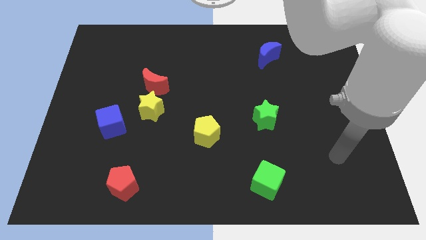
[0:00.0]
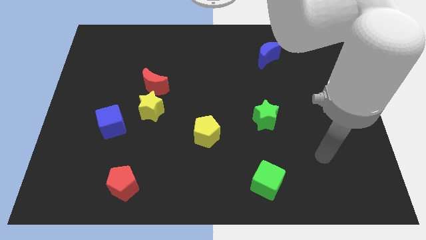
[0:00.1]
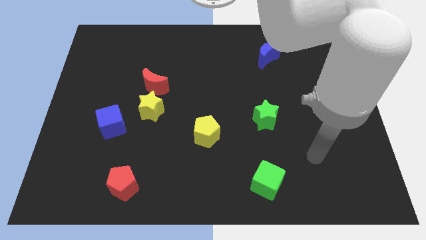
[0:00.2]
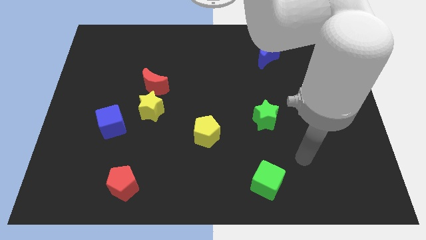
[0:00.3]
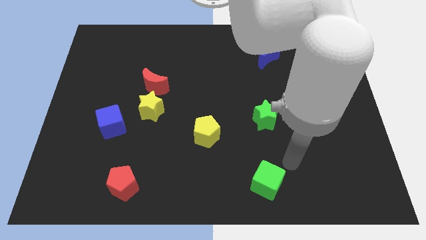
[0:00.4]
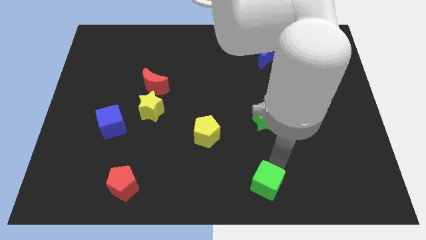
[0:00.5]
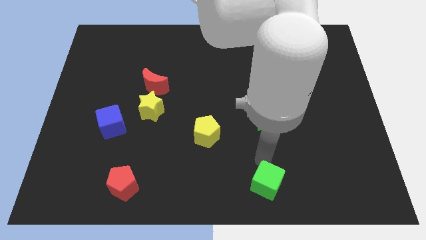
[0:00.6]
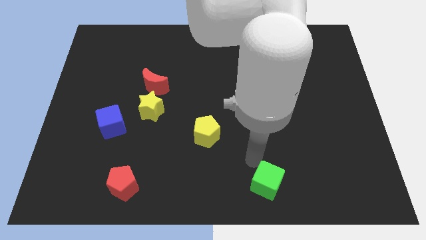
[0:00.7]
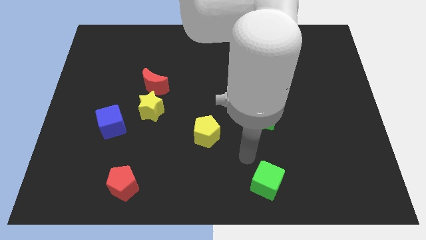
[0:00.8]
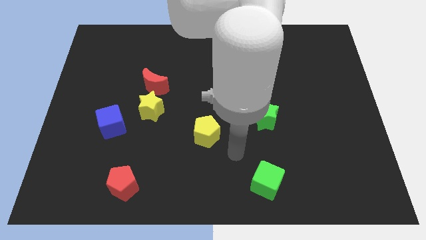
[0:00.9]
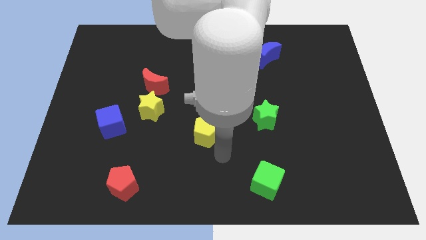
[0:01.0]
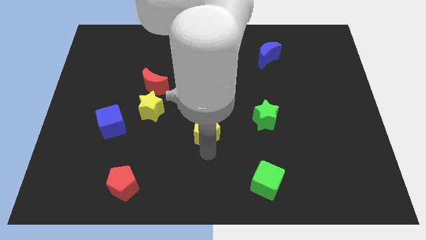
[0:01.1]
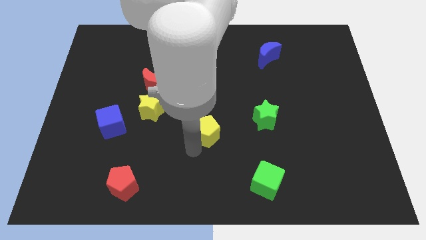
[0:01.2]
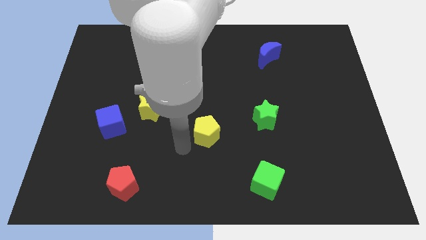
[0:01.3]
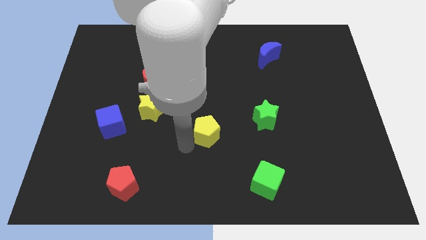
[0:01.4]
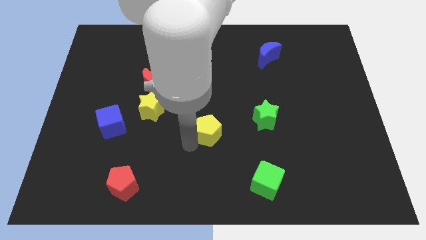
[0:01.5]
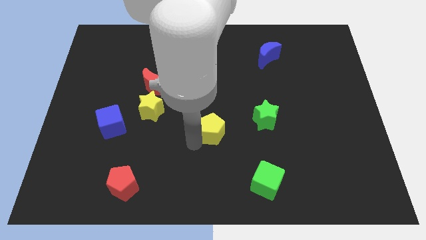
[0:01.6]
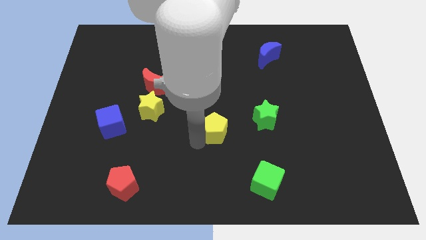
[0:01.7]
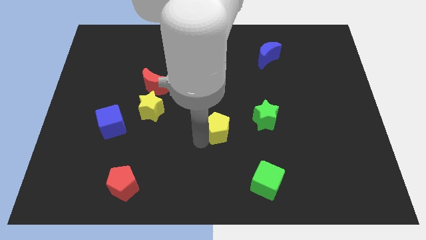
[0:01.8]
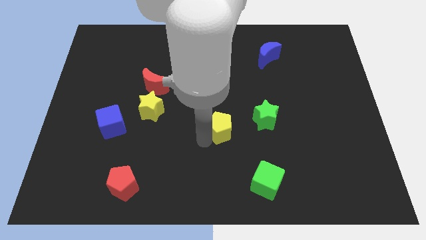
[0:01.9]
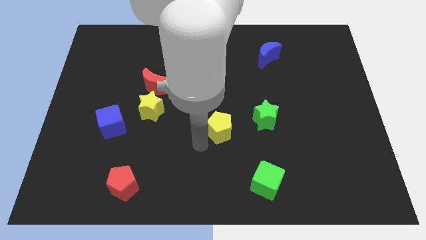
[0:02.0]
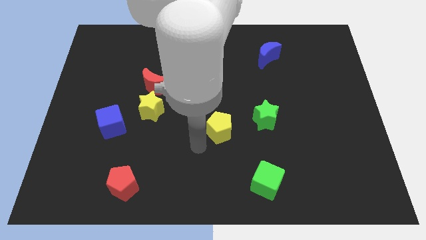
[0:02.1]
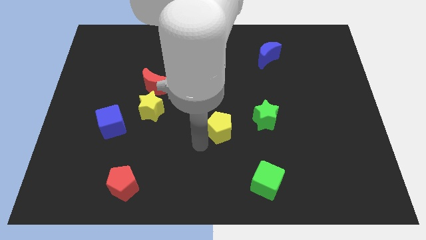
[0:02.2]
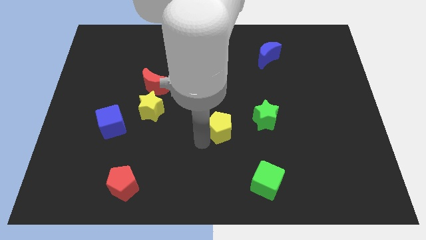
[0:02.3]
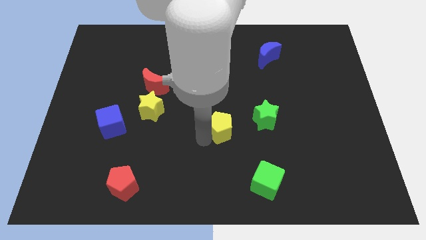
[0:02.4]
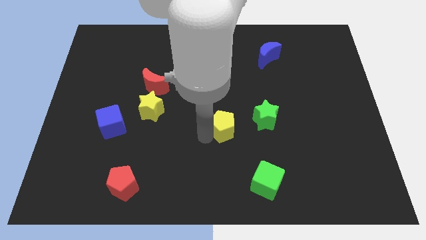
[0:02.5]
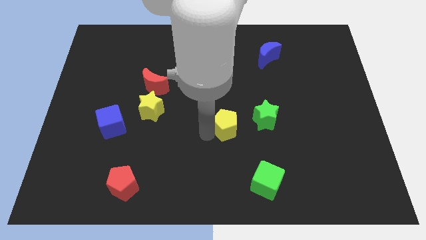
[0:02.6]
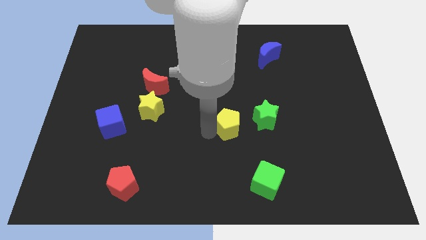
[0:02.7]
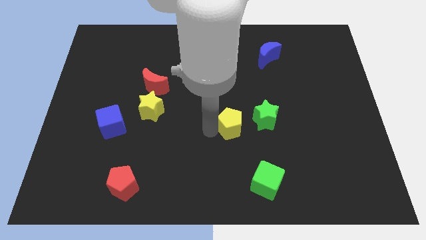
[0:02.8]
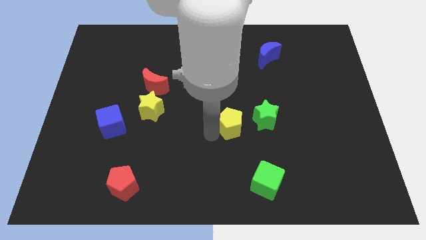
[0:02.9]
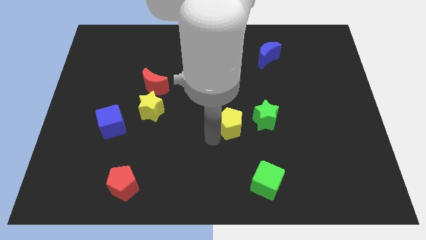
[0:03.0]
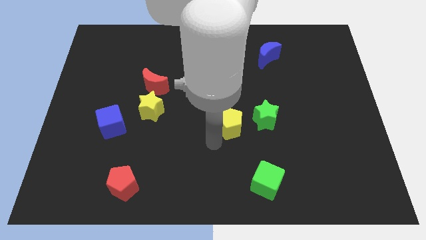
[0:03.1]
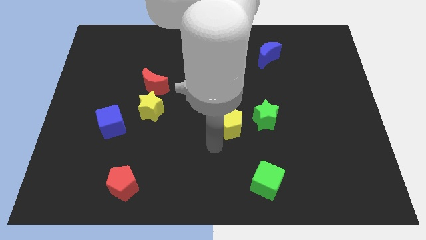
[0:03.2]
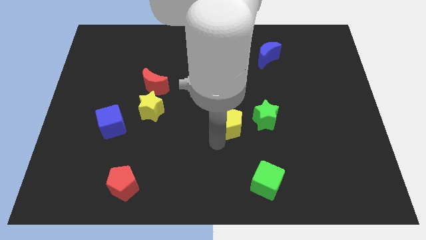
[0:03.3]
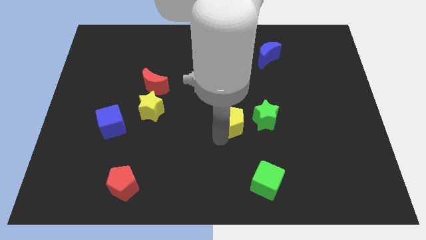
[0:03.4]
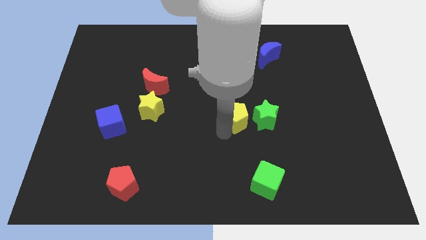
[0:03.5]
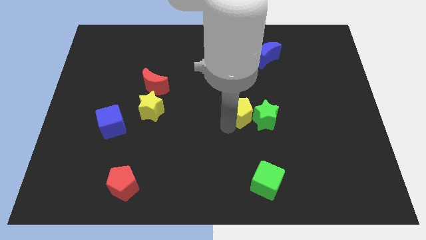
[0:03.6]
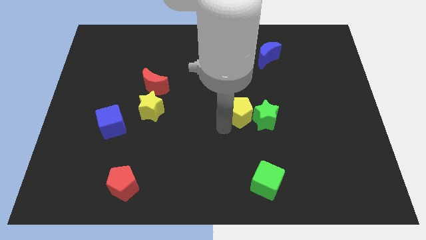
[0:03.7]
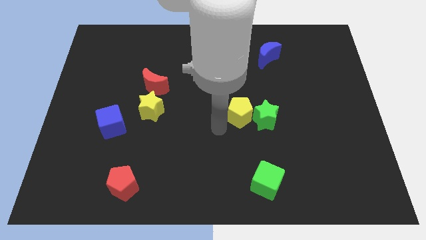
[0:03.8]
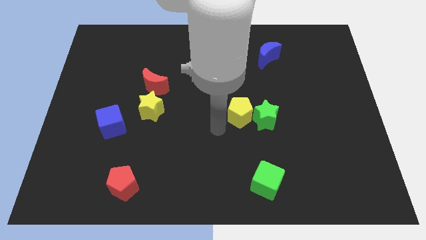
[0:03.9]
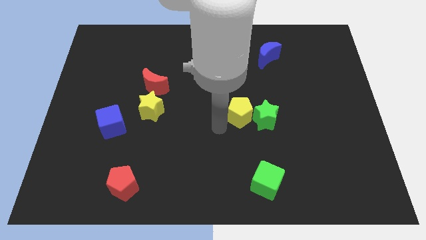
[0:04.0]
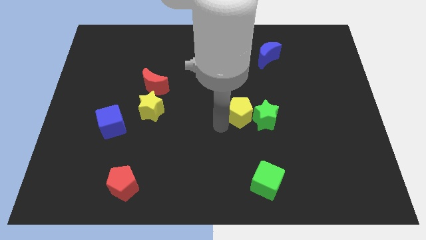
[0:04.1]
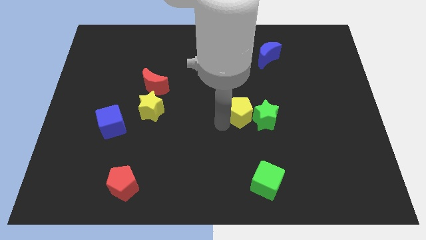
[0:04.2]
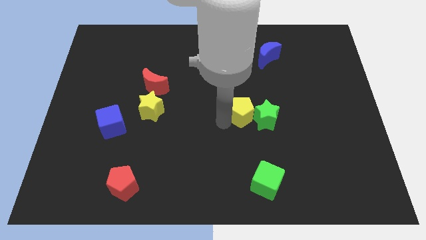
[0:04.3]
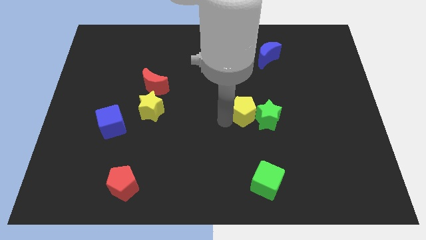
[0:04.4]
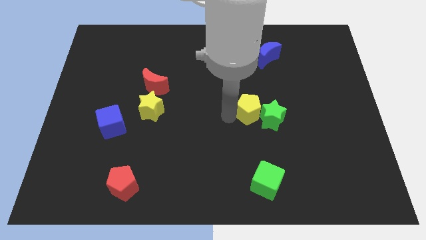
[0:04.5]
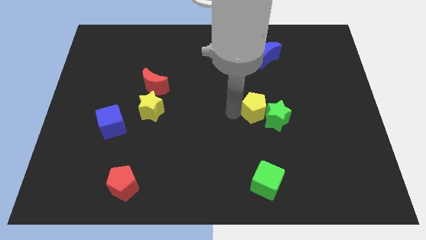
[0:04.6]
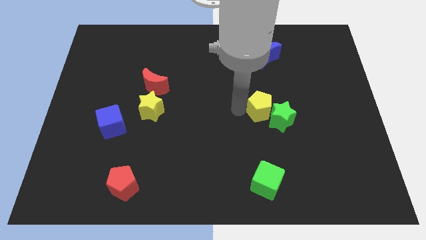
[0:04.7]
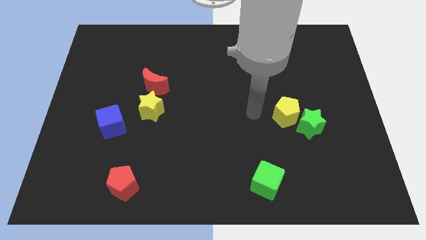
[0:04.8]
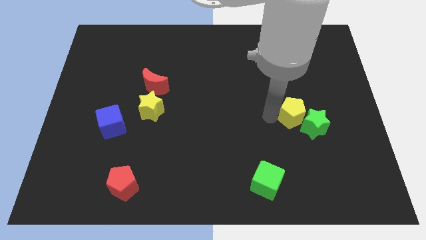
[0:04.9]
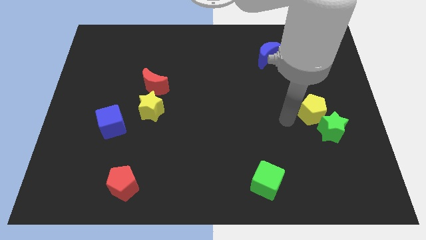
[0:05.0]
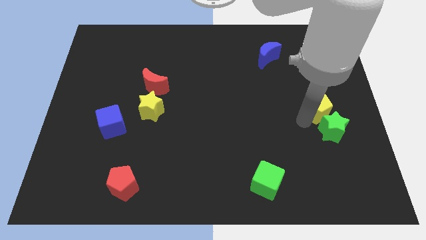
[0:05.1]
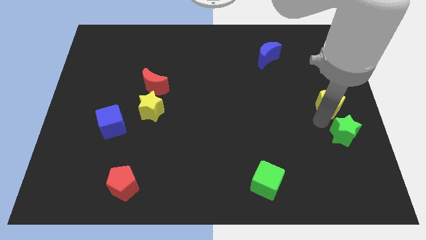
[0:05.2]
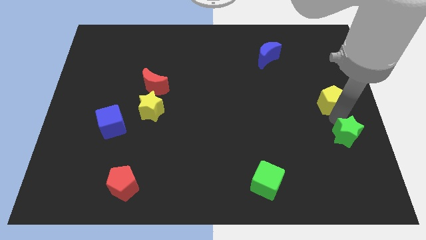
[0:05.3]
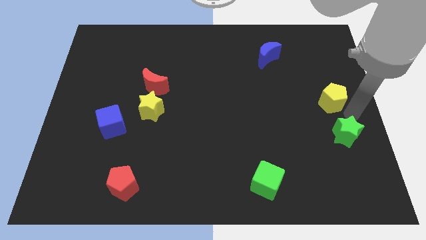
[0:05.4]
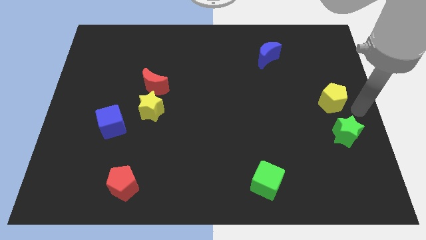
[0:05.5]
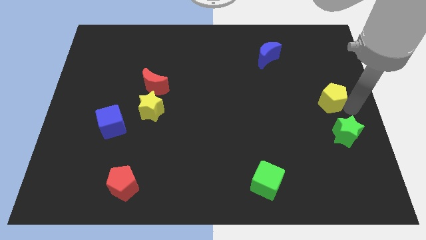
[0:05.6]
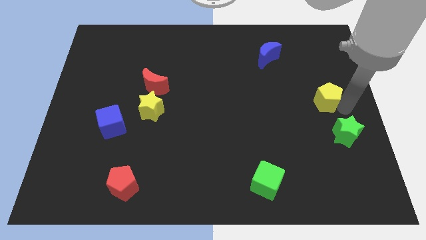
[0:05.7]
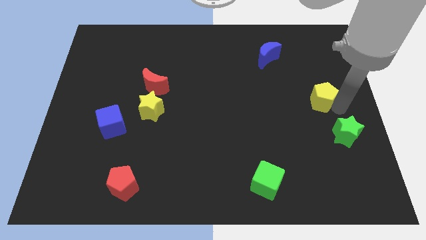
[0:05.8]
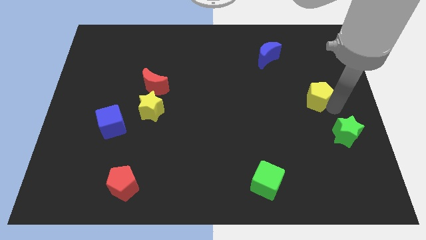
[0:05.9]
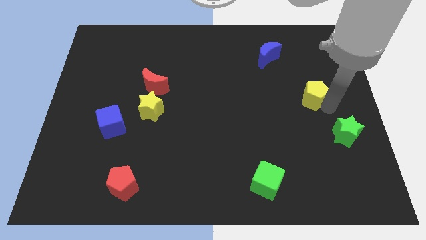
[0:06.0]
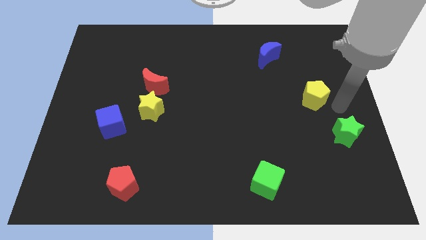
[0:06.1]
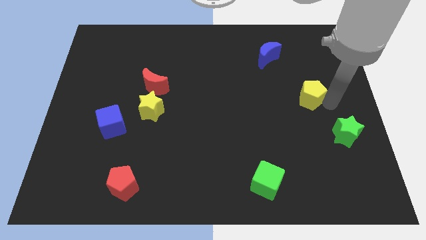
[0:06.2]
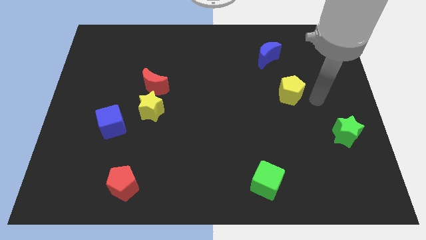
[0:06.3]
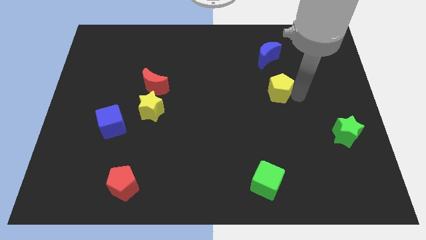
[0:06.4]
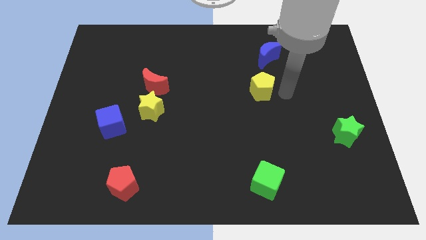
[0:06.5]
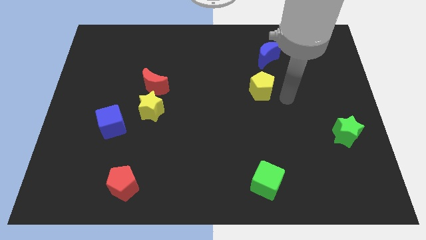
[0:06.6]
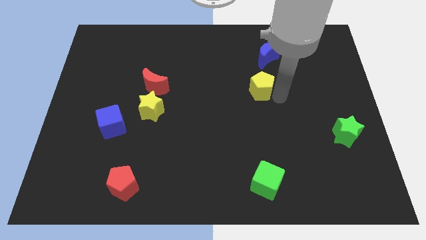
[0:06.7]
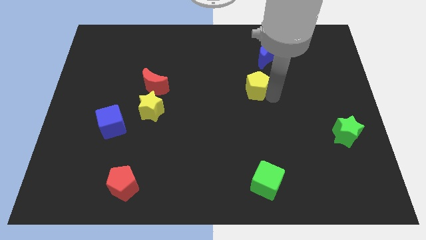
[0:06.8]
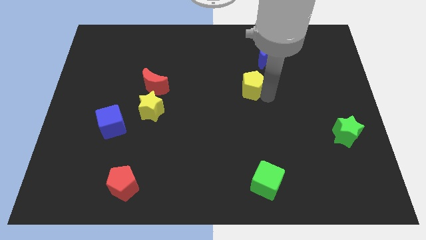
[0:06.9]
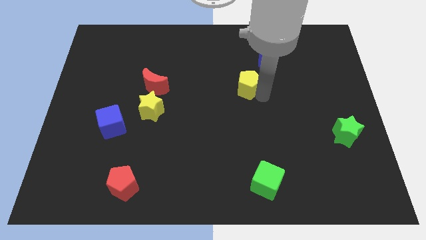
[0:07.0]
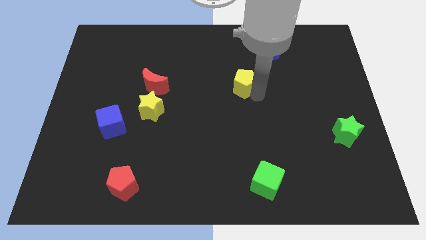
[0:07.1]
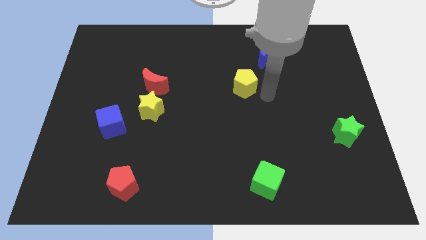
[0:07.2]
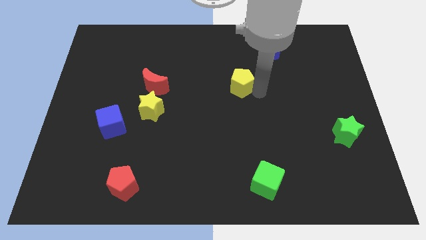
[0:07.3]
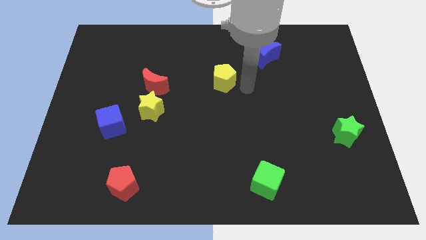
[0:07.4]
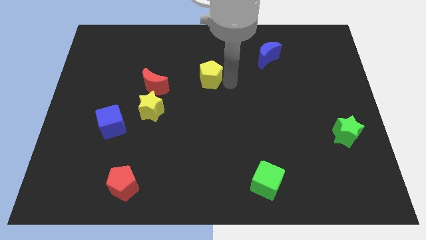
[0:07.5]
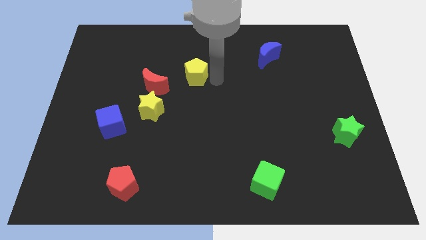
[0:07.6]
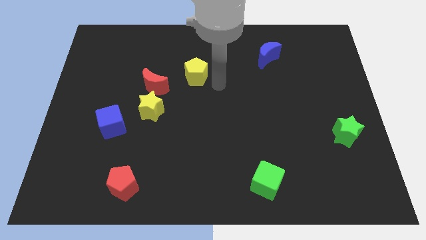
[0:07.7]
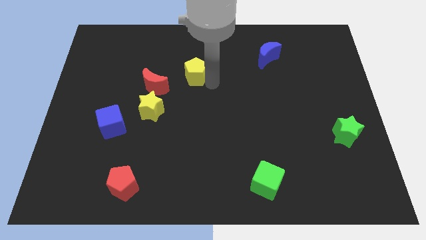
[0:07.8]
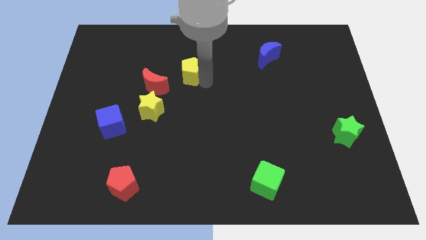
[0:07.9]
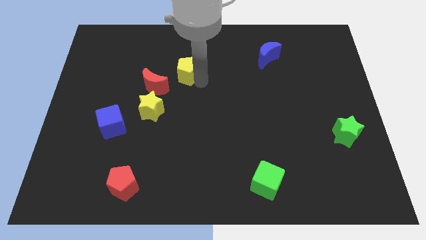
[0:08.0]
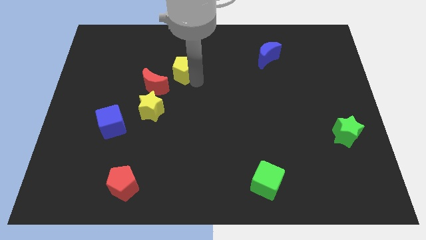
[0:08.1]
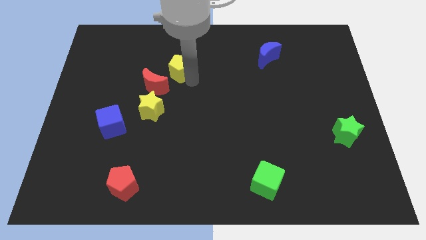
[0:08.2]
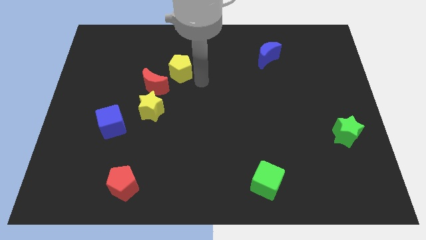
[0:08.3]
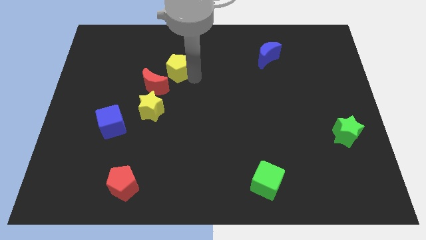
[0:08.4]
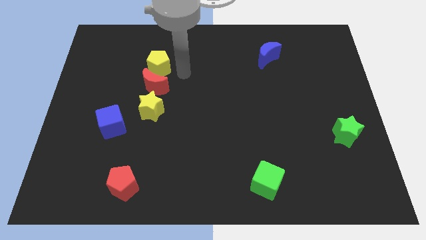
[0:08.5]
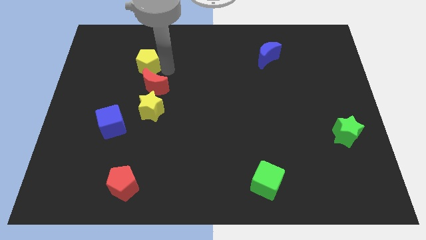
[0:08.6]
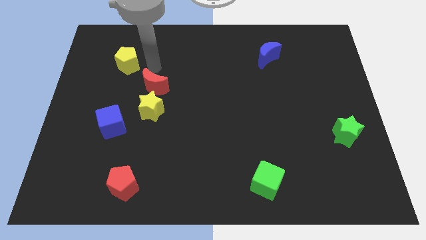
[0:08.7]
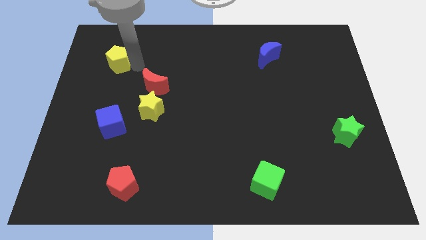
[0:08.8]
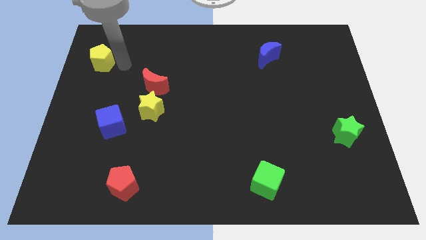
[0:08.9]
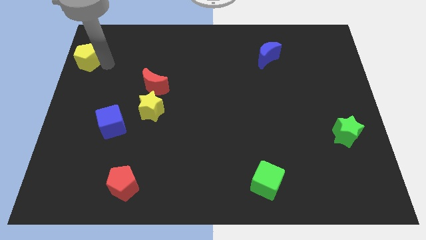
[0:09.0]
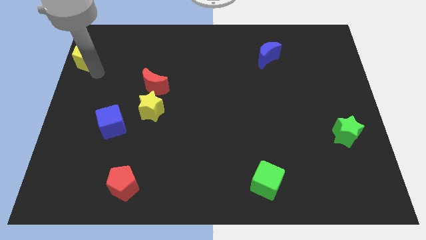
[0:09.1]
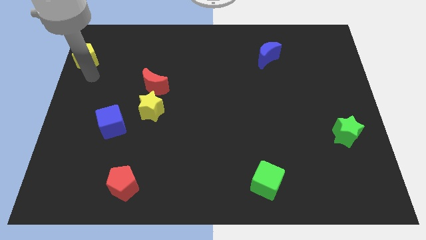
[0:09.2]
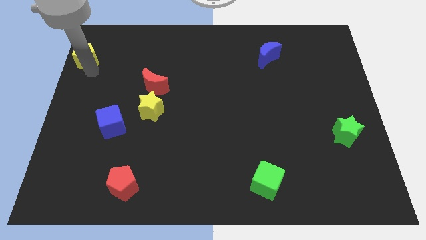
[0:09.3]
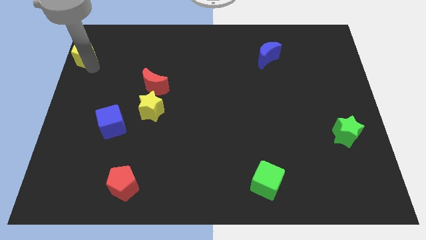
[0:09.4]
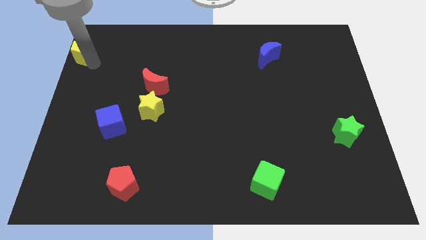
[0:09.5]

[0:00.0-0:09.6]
push the yellow pentagon to the top left
